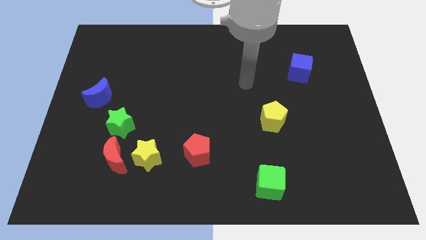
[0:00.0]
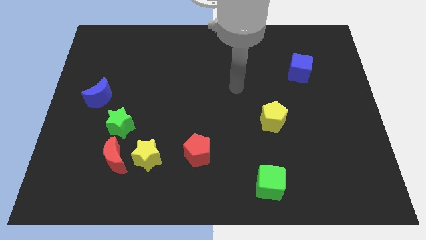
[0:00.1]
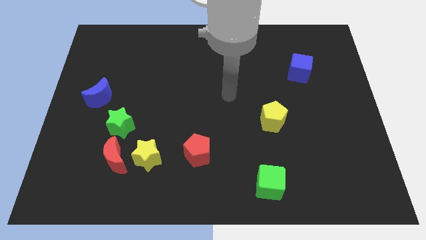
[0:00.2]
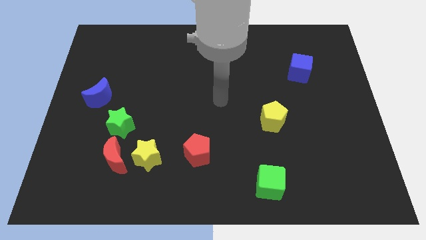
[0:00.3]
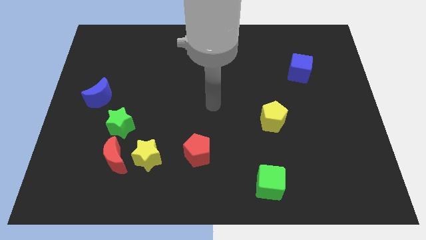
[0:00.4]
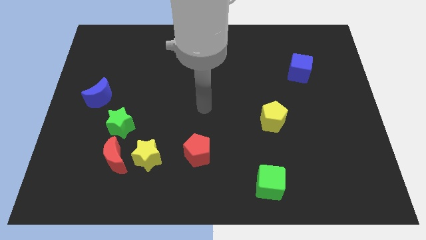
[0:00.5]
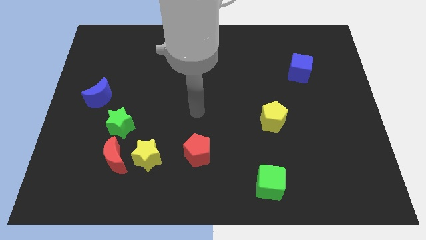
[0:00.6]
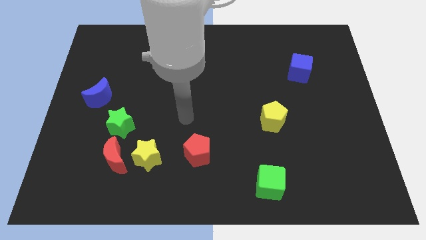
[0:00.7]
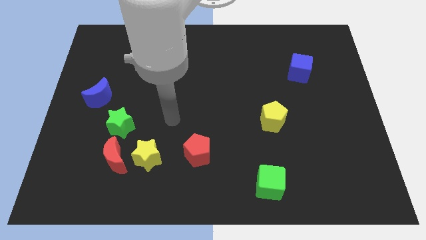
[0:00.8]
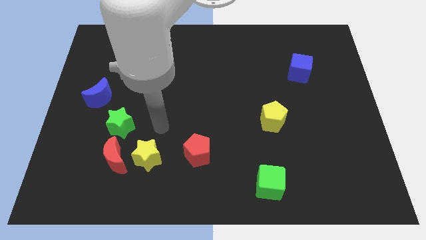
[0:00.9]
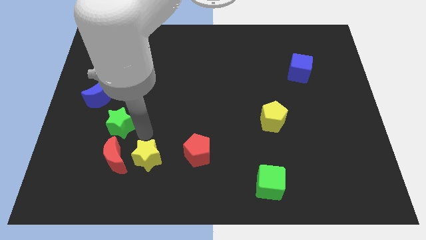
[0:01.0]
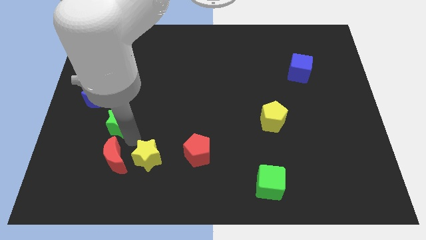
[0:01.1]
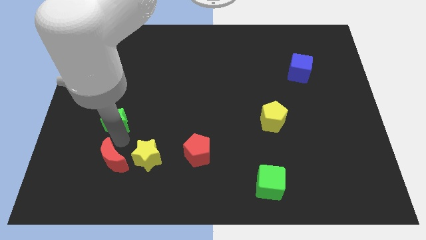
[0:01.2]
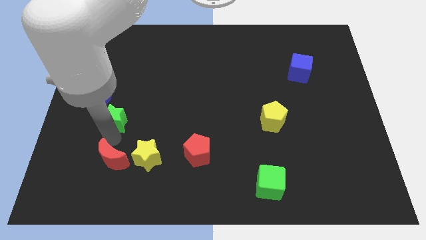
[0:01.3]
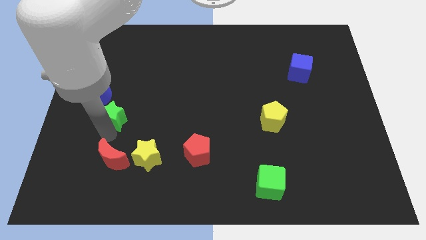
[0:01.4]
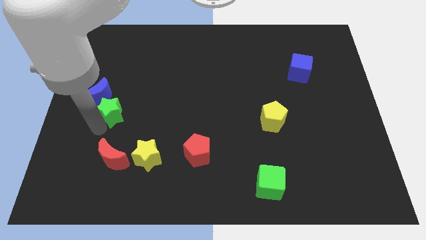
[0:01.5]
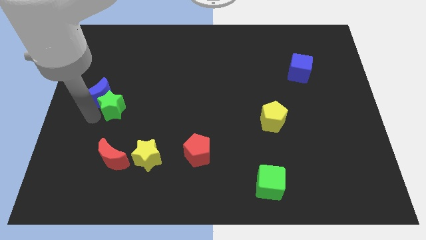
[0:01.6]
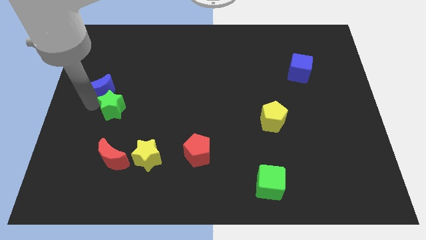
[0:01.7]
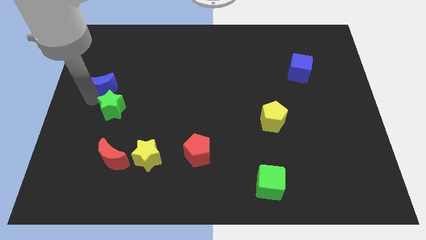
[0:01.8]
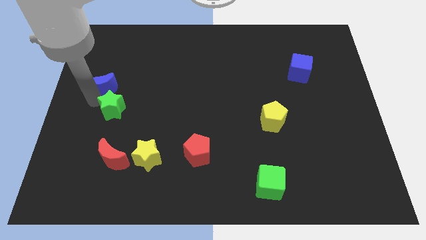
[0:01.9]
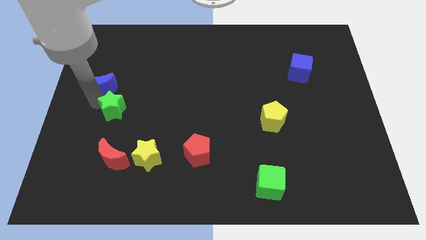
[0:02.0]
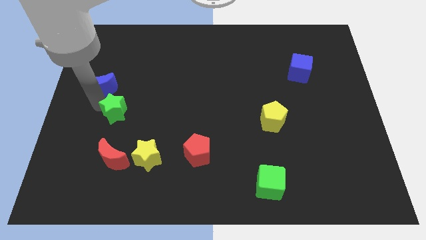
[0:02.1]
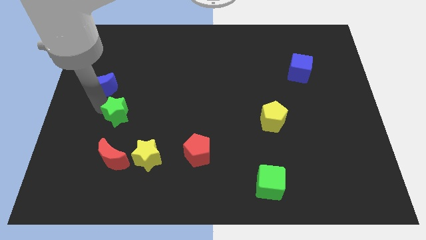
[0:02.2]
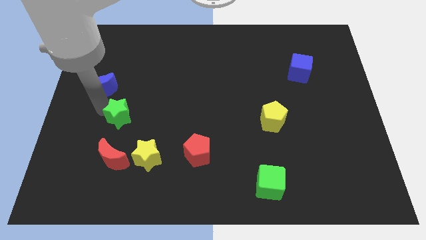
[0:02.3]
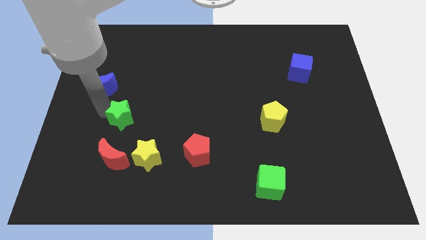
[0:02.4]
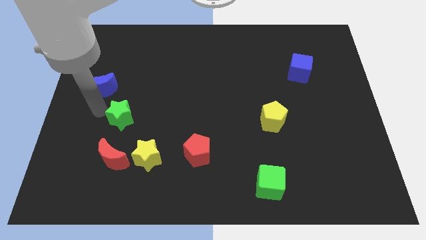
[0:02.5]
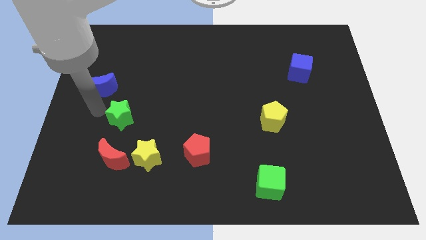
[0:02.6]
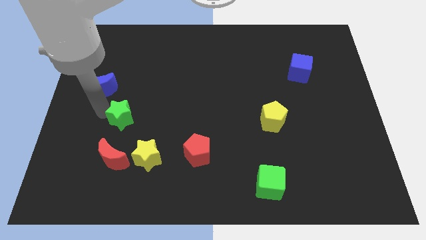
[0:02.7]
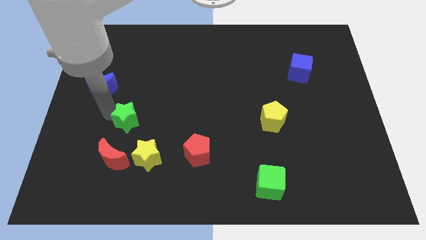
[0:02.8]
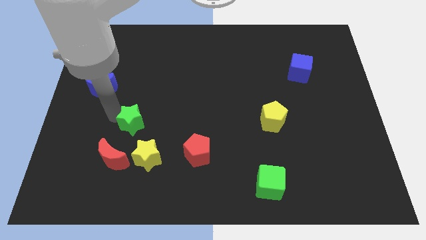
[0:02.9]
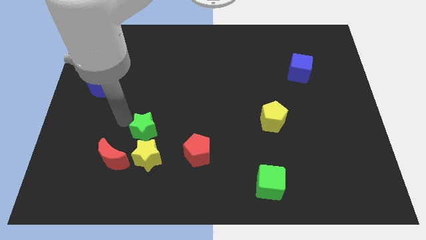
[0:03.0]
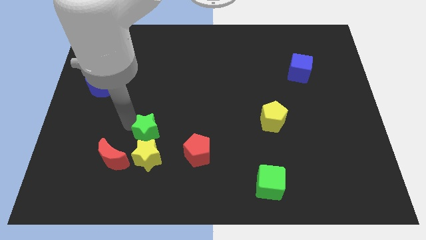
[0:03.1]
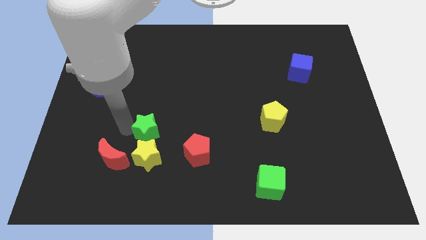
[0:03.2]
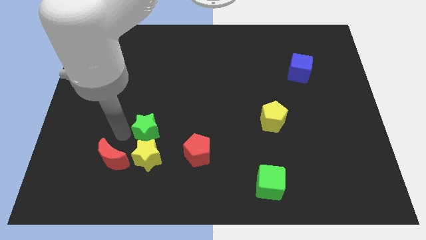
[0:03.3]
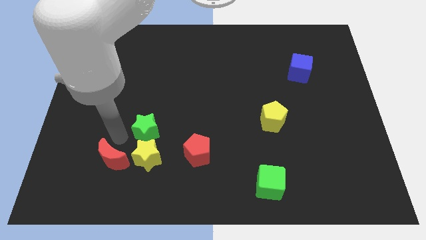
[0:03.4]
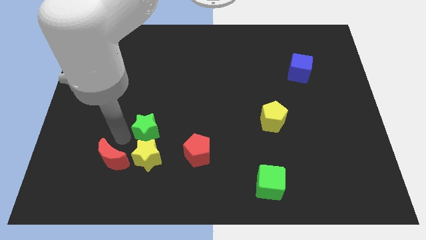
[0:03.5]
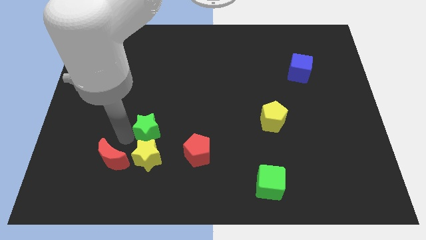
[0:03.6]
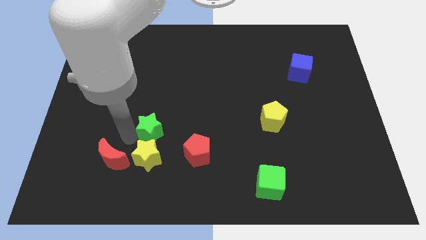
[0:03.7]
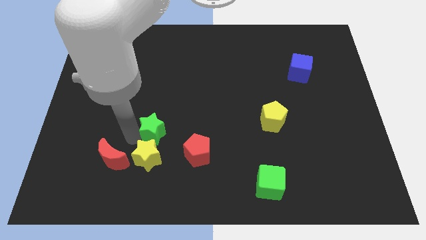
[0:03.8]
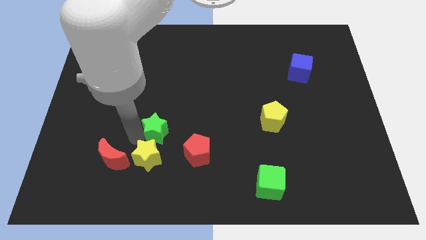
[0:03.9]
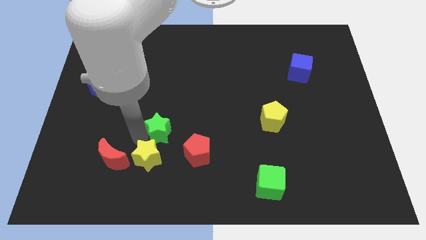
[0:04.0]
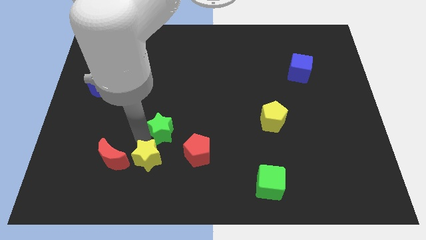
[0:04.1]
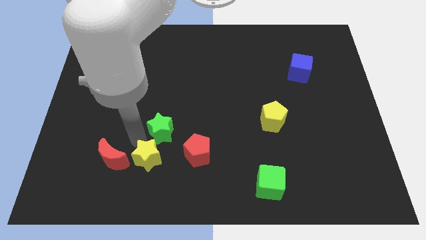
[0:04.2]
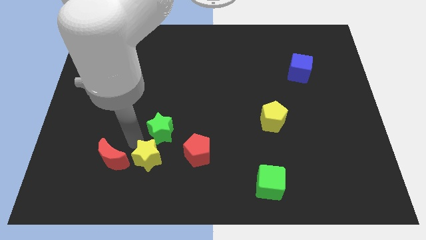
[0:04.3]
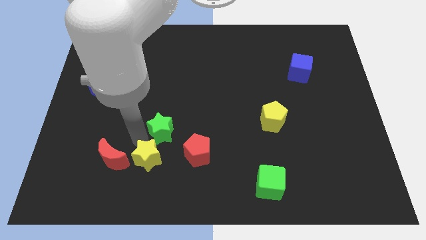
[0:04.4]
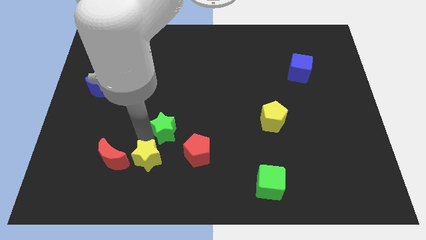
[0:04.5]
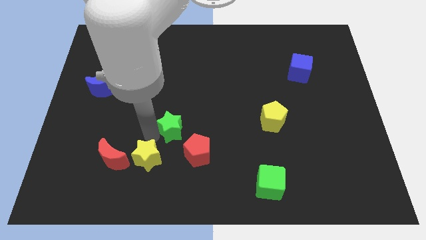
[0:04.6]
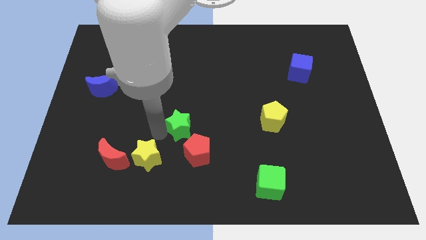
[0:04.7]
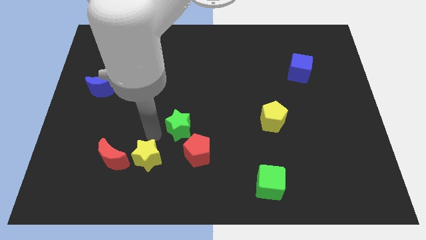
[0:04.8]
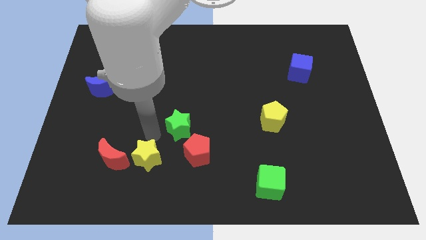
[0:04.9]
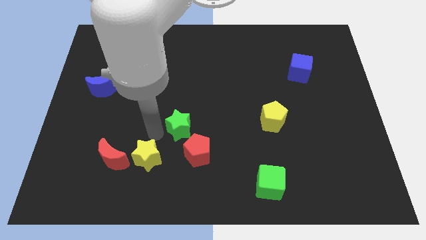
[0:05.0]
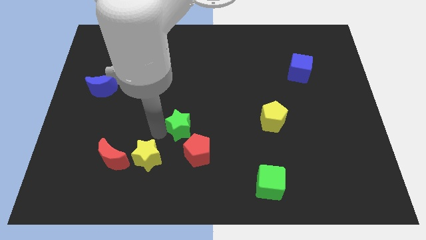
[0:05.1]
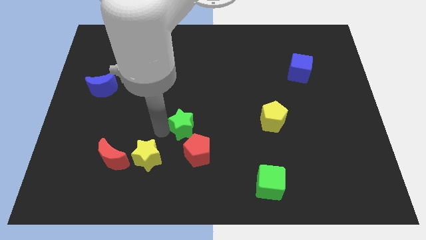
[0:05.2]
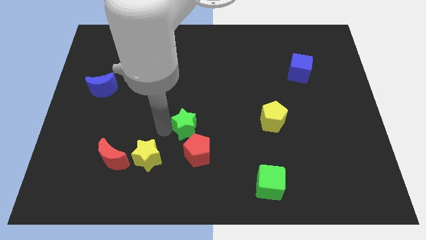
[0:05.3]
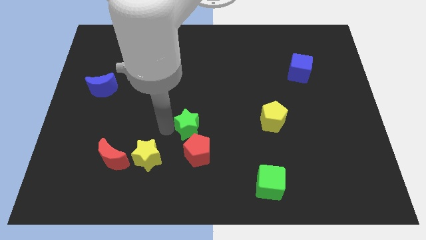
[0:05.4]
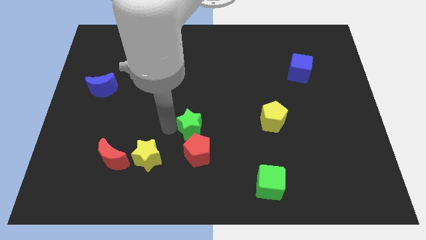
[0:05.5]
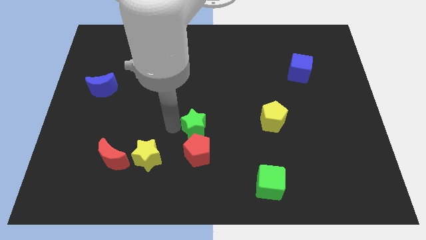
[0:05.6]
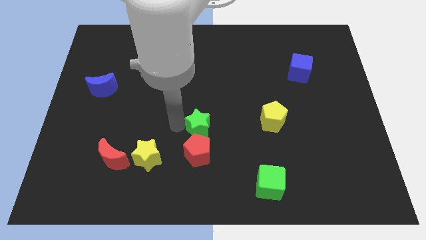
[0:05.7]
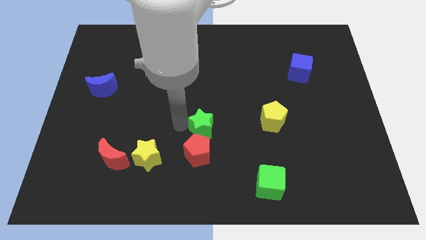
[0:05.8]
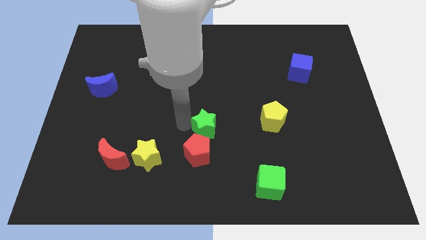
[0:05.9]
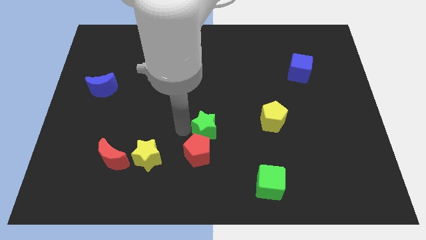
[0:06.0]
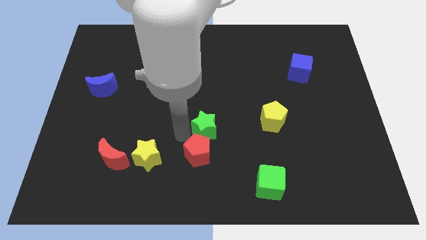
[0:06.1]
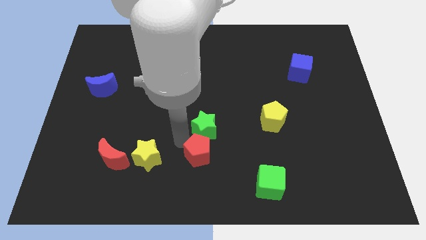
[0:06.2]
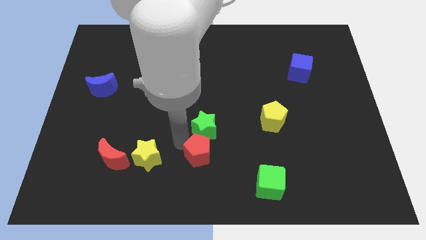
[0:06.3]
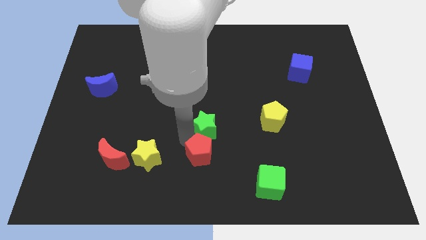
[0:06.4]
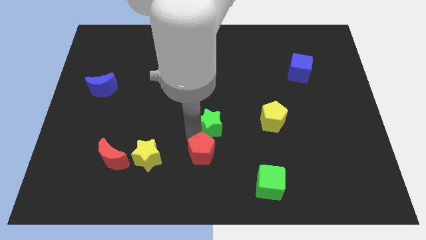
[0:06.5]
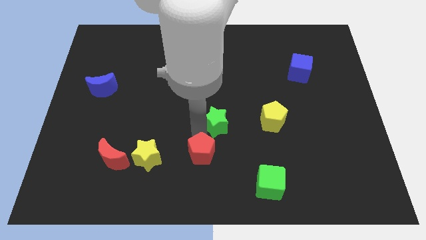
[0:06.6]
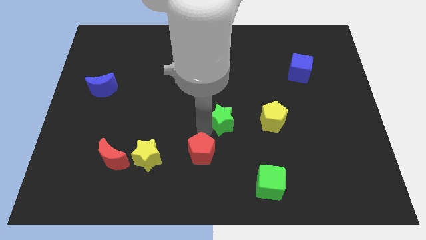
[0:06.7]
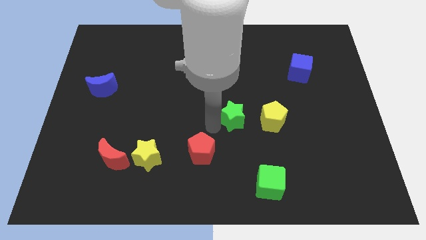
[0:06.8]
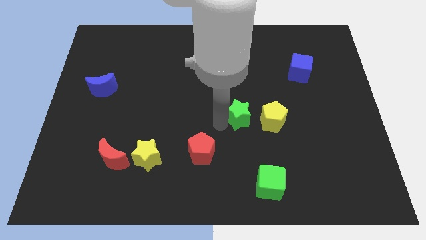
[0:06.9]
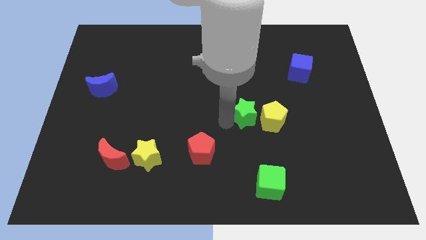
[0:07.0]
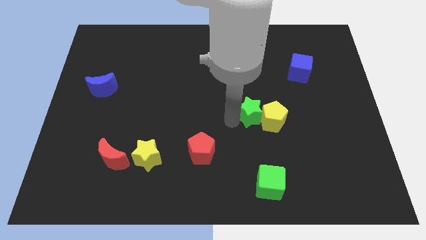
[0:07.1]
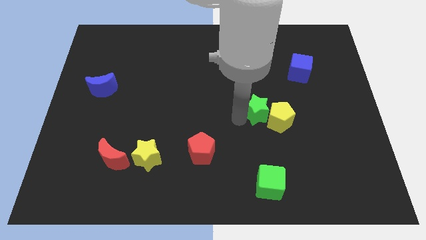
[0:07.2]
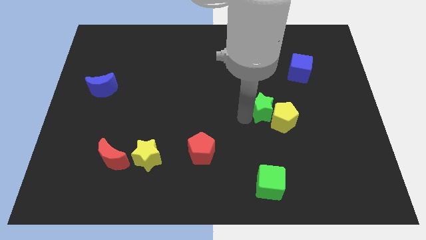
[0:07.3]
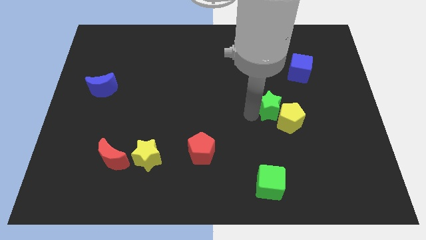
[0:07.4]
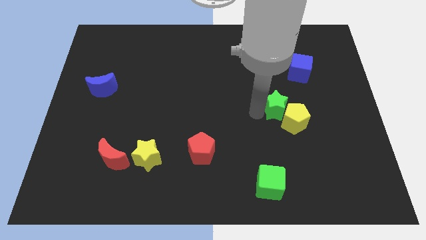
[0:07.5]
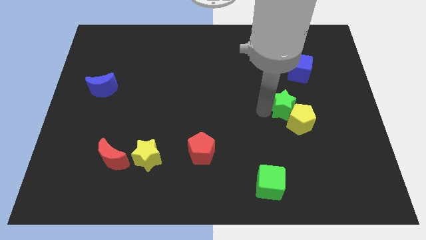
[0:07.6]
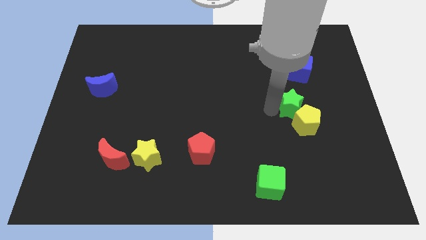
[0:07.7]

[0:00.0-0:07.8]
slide the green star to the bottom side of the blue cube
